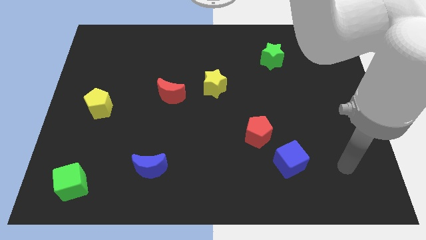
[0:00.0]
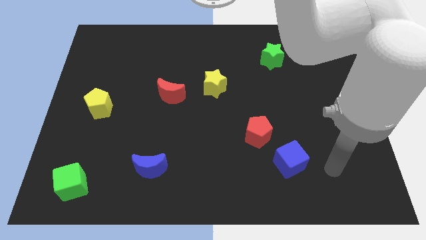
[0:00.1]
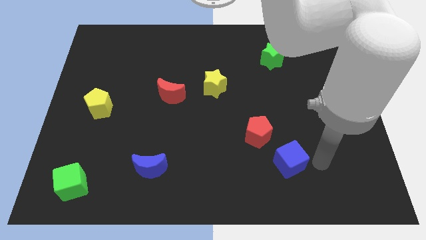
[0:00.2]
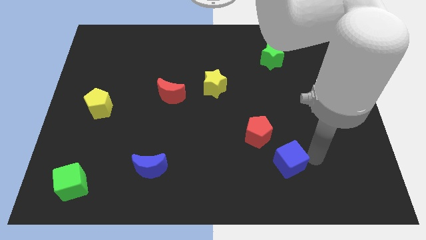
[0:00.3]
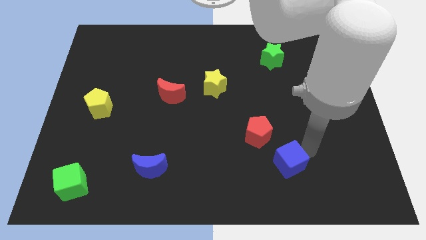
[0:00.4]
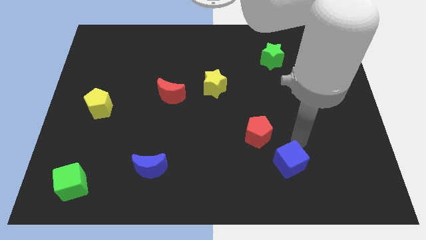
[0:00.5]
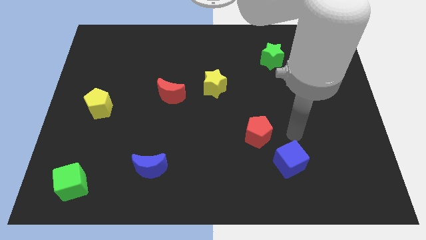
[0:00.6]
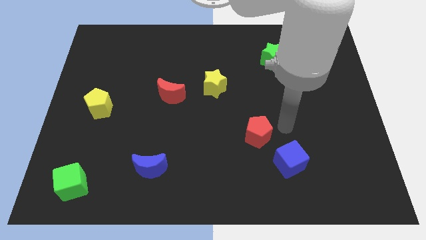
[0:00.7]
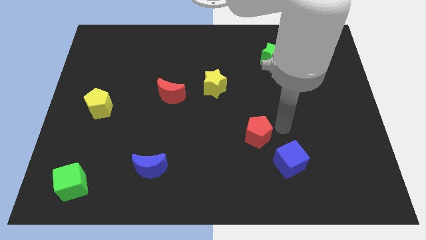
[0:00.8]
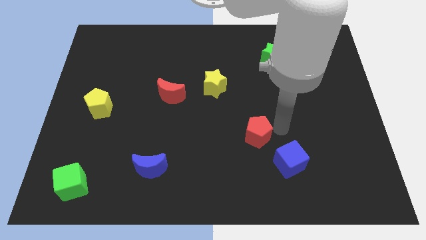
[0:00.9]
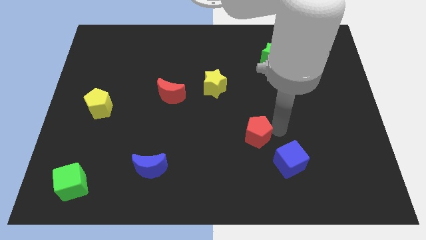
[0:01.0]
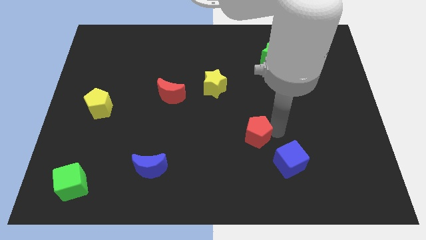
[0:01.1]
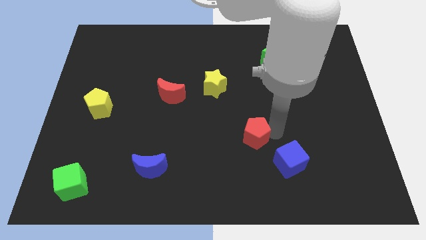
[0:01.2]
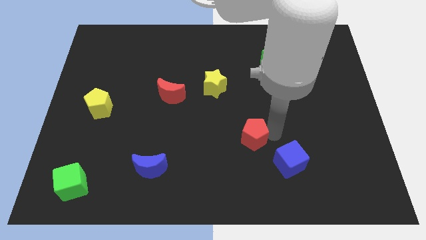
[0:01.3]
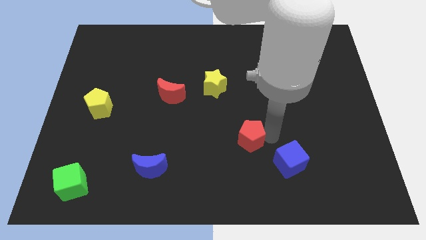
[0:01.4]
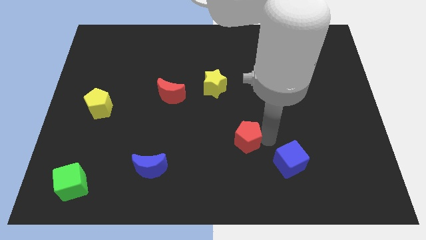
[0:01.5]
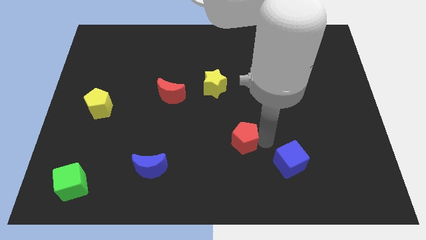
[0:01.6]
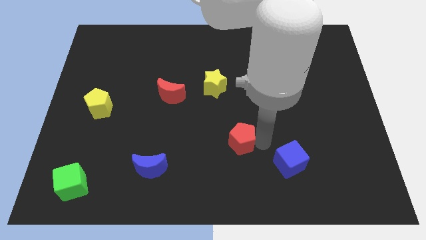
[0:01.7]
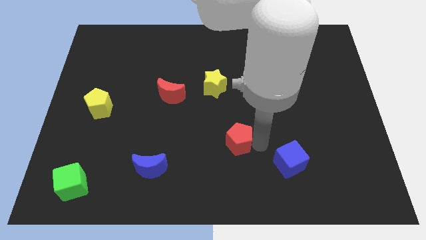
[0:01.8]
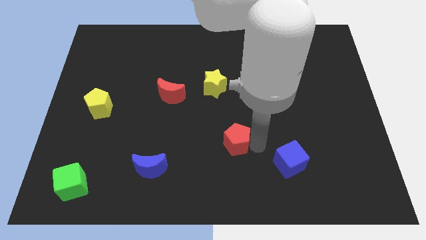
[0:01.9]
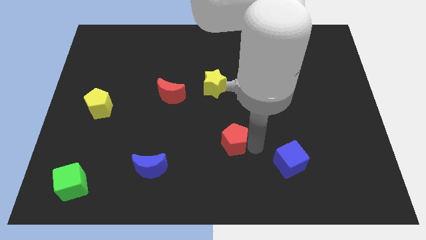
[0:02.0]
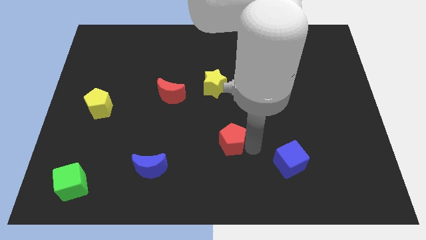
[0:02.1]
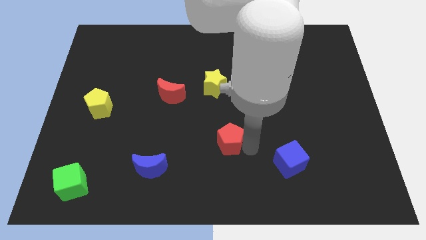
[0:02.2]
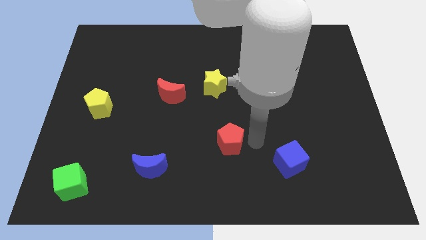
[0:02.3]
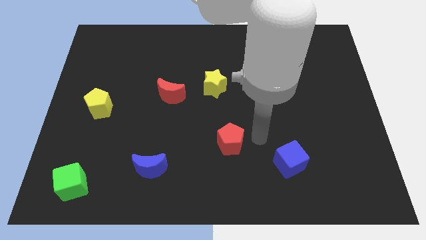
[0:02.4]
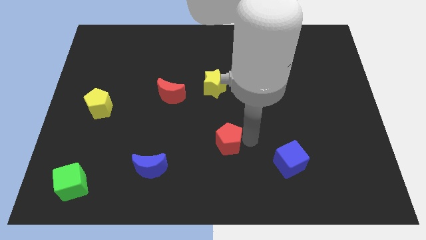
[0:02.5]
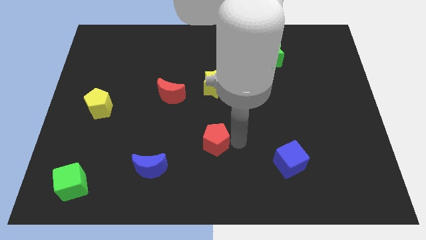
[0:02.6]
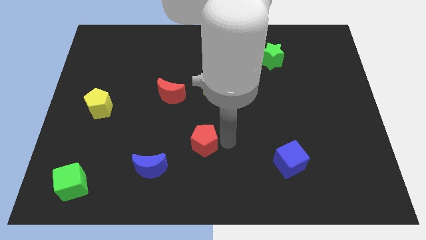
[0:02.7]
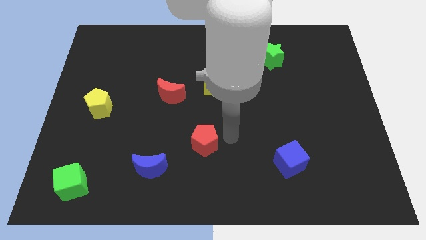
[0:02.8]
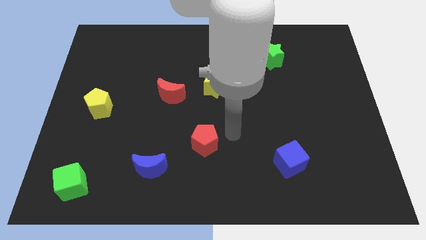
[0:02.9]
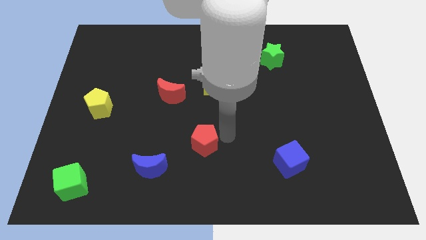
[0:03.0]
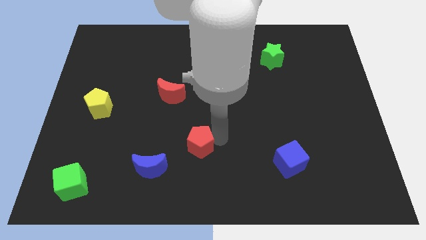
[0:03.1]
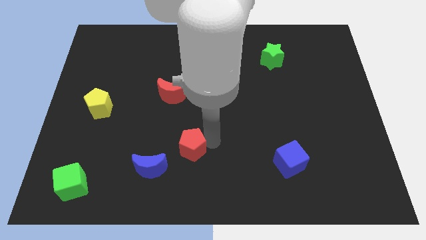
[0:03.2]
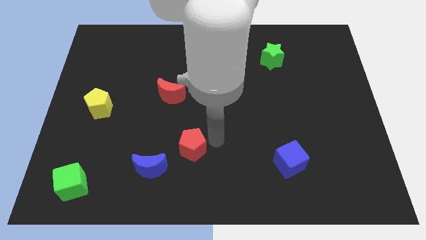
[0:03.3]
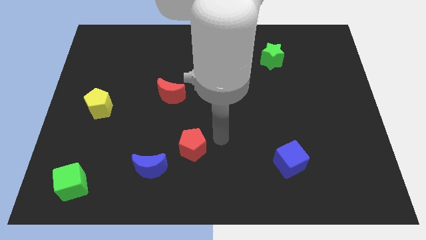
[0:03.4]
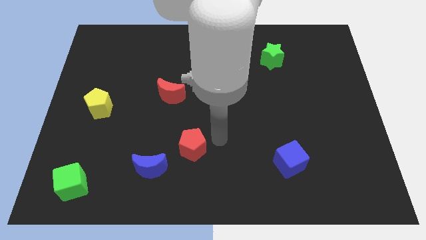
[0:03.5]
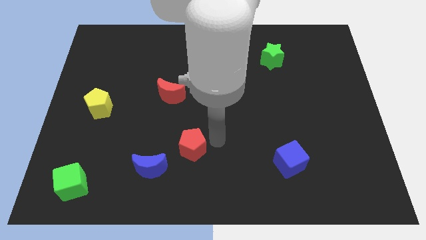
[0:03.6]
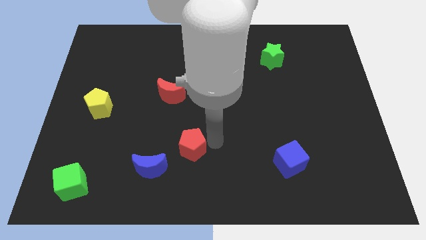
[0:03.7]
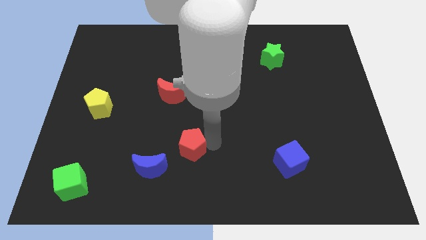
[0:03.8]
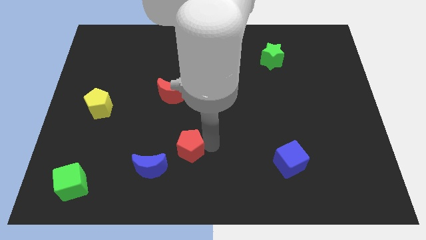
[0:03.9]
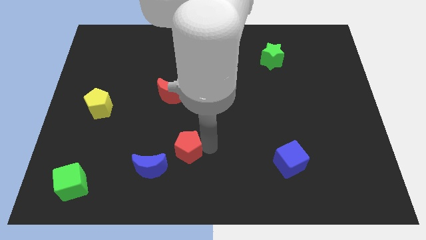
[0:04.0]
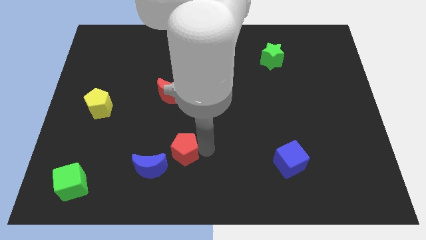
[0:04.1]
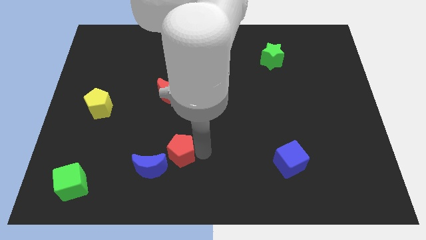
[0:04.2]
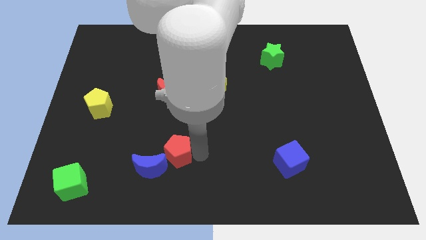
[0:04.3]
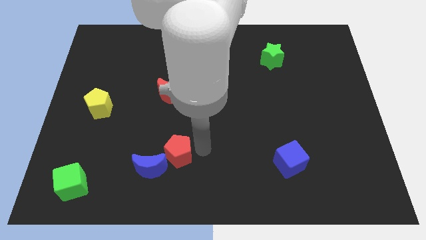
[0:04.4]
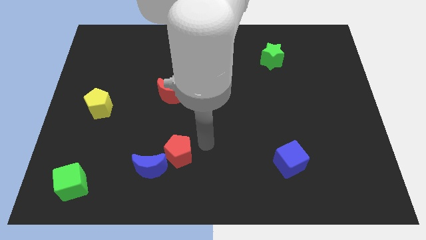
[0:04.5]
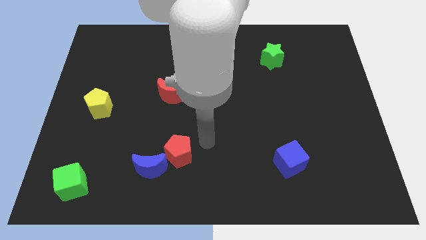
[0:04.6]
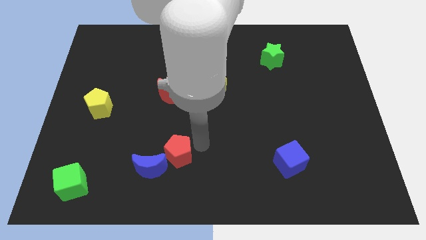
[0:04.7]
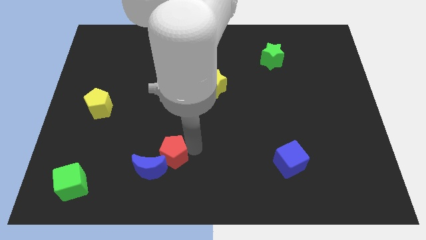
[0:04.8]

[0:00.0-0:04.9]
slide the red pentagon close to the blue moon

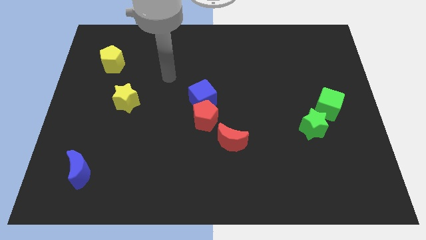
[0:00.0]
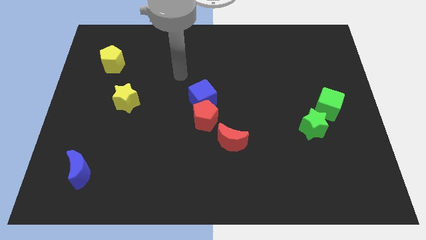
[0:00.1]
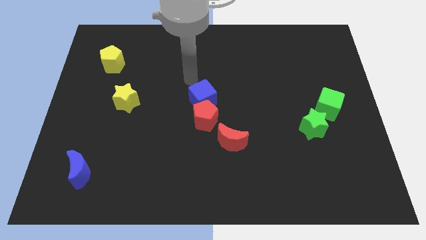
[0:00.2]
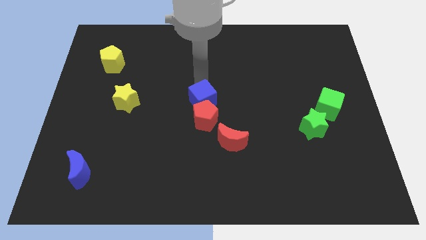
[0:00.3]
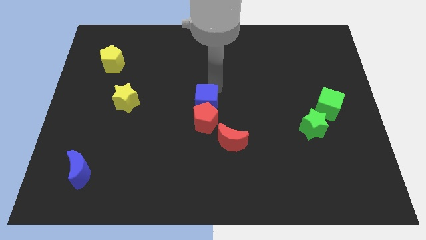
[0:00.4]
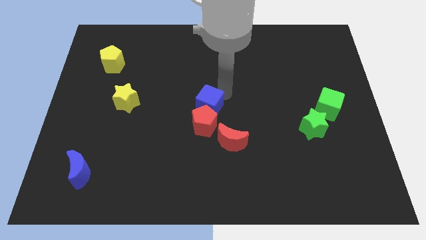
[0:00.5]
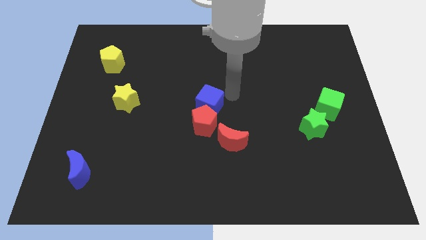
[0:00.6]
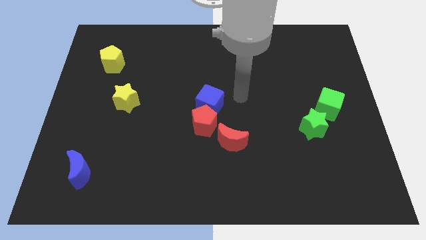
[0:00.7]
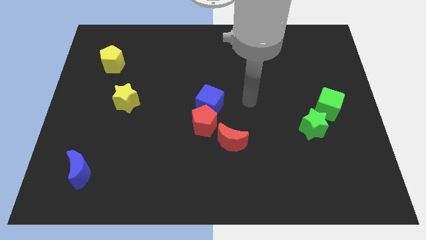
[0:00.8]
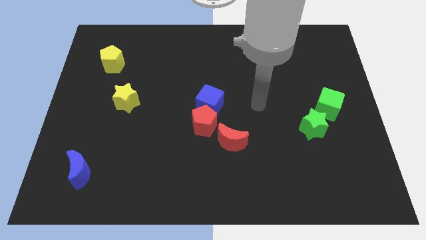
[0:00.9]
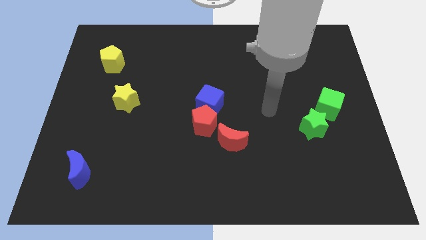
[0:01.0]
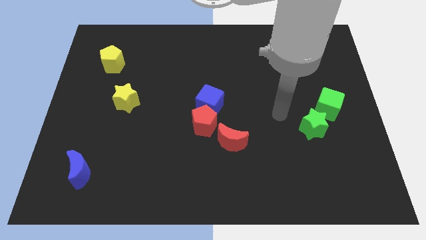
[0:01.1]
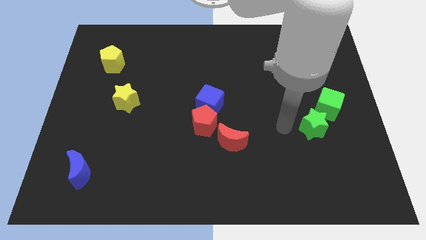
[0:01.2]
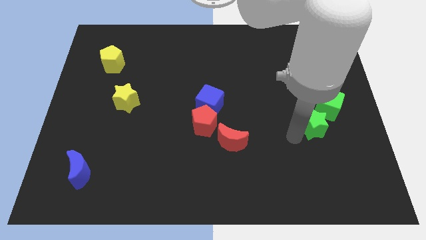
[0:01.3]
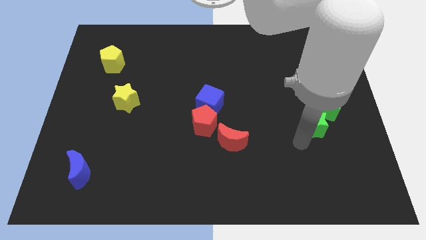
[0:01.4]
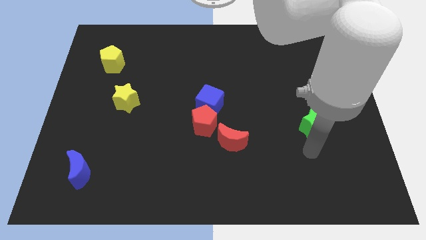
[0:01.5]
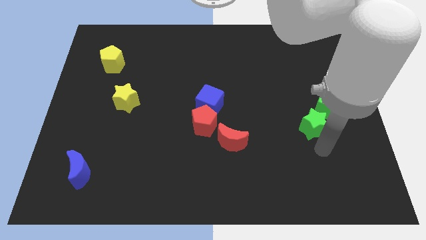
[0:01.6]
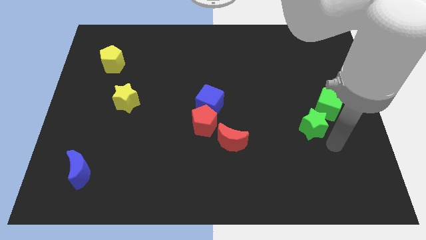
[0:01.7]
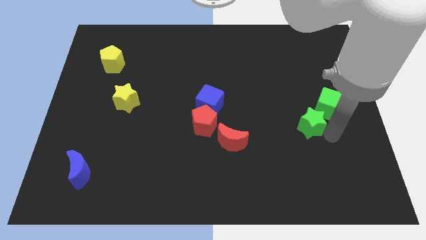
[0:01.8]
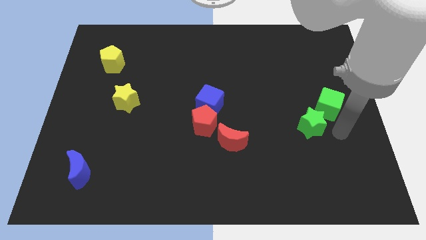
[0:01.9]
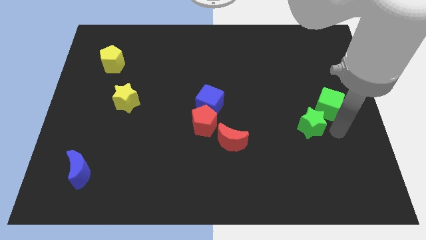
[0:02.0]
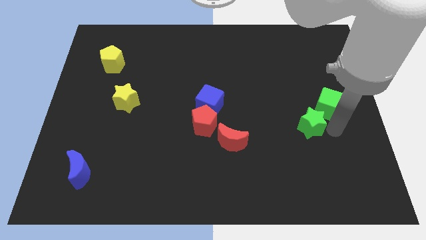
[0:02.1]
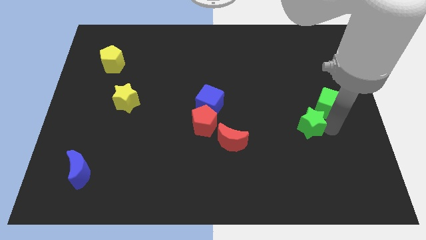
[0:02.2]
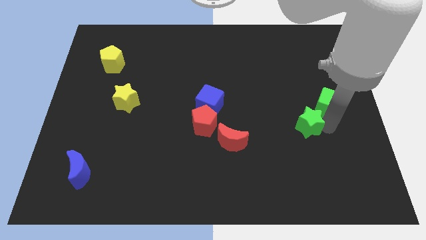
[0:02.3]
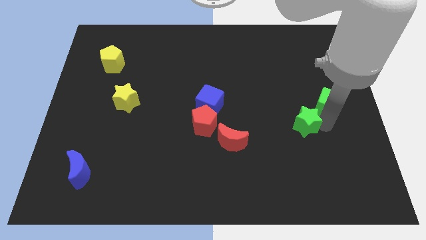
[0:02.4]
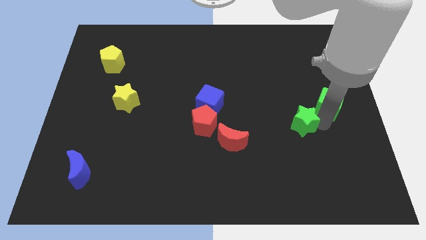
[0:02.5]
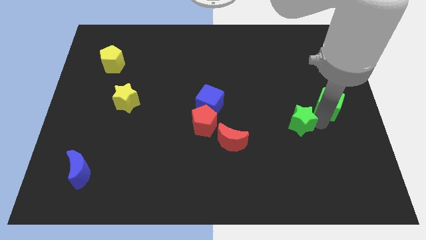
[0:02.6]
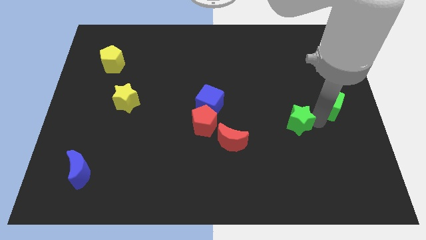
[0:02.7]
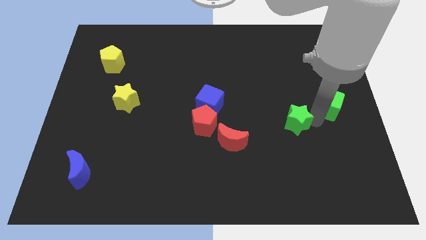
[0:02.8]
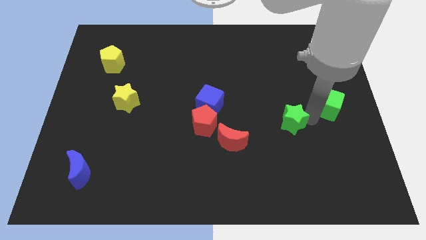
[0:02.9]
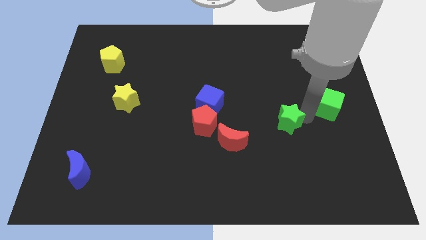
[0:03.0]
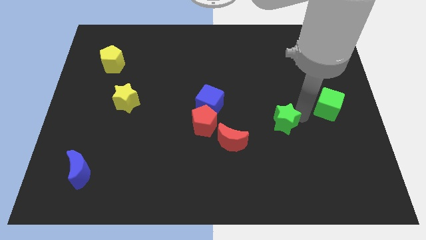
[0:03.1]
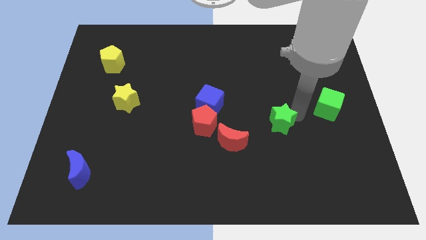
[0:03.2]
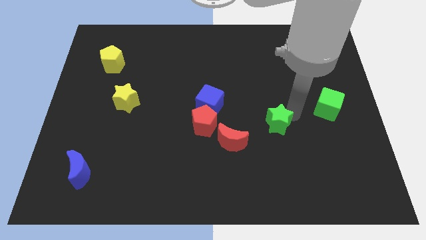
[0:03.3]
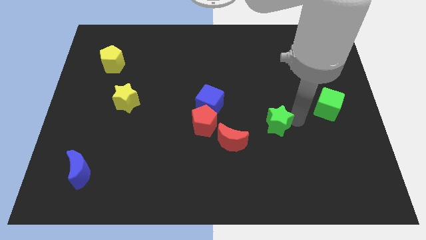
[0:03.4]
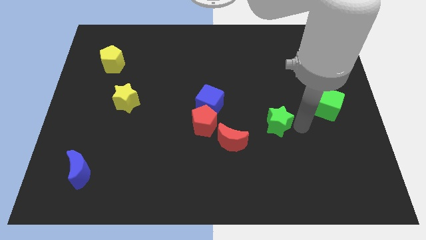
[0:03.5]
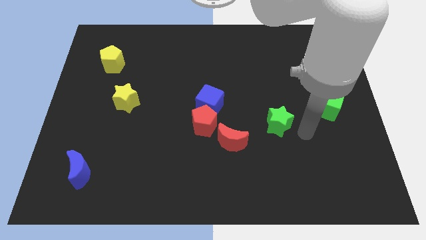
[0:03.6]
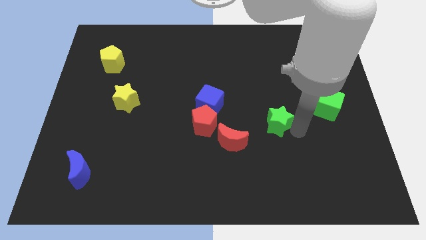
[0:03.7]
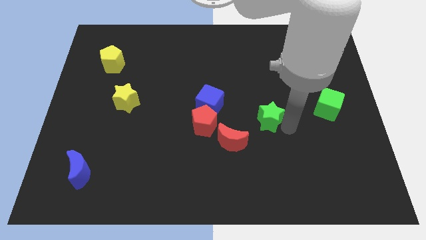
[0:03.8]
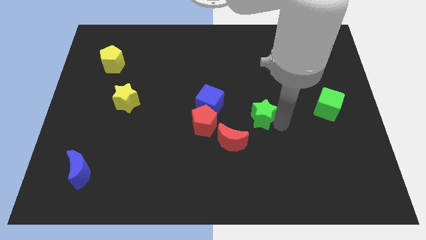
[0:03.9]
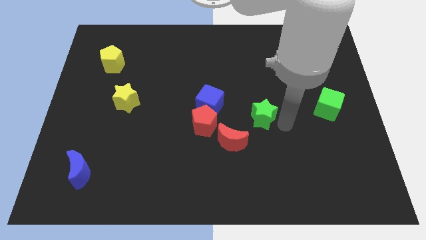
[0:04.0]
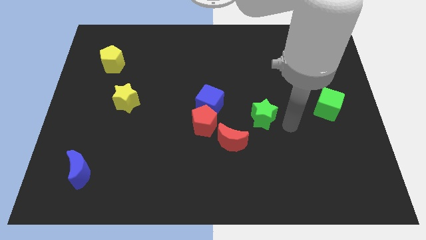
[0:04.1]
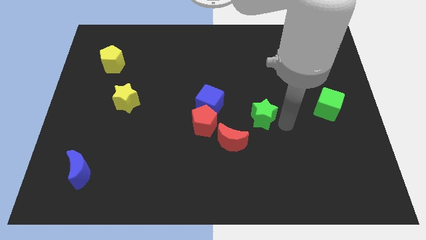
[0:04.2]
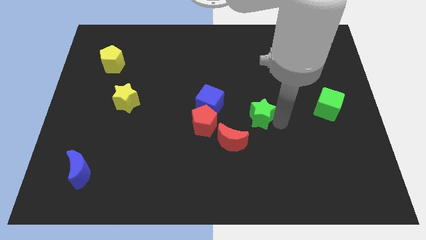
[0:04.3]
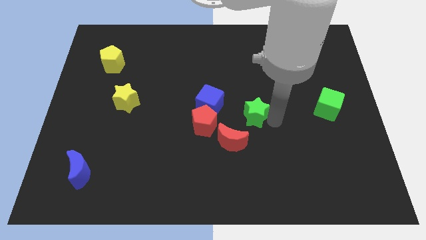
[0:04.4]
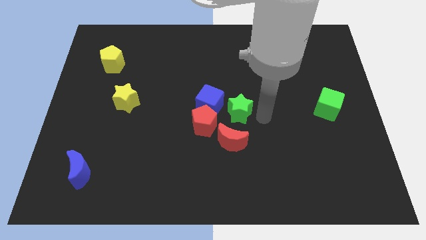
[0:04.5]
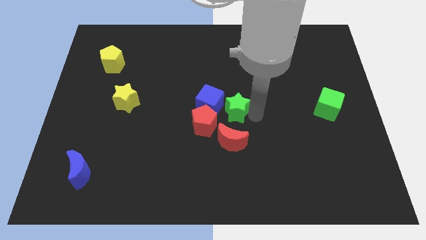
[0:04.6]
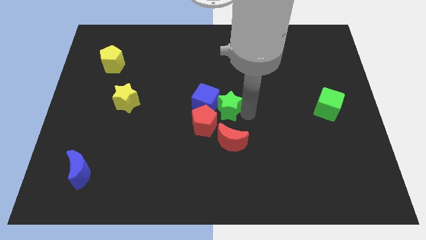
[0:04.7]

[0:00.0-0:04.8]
move the green star next to the blue cube
